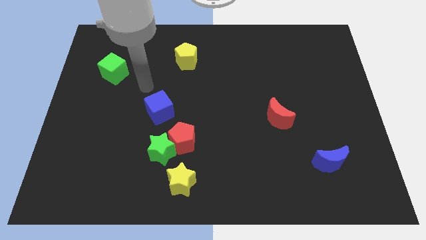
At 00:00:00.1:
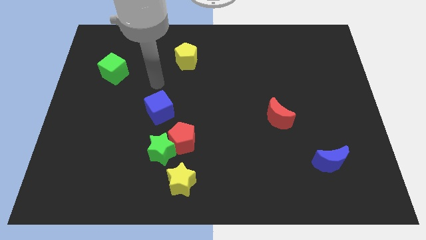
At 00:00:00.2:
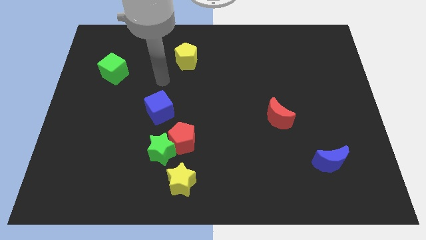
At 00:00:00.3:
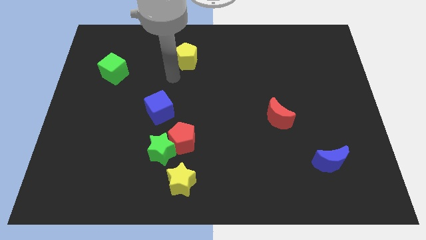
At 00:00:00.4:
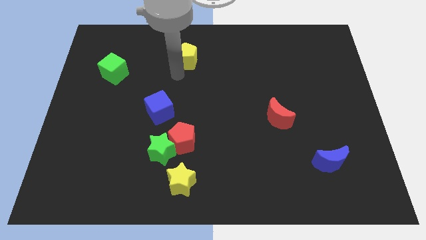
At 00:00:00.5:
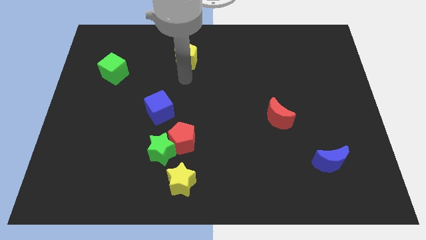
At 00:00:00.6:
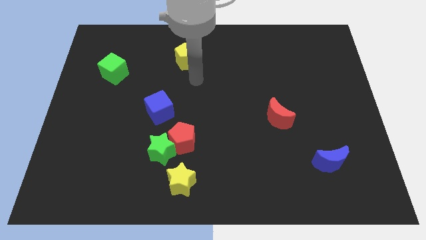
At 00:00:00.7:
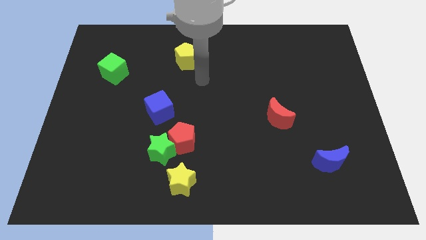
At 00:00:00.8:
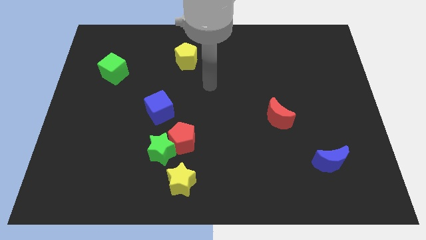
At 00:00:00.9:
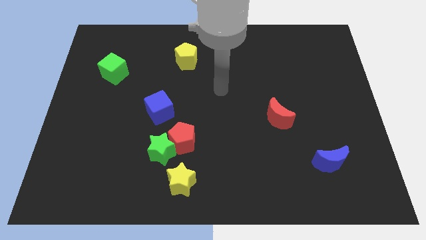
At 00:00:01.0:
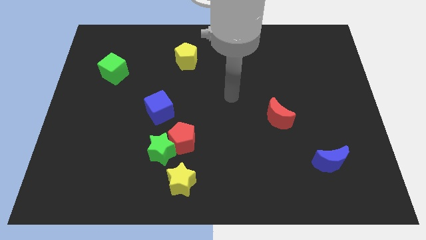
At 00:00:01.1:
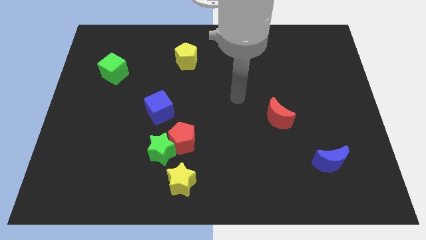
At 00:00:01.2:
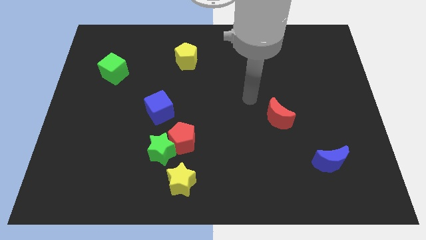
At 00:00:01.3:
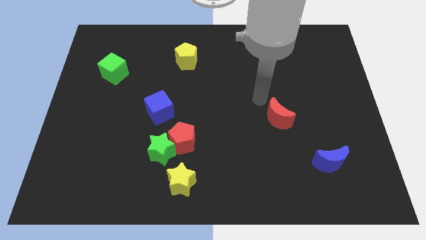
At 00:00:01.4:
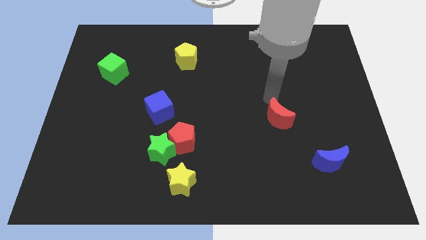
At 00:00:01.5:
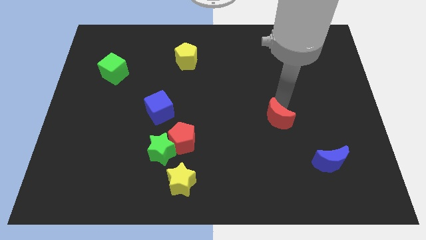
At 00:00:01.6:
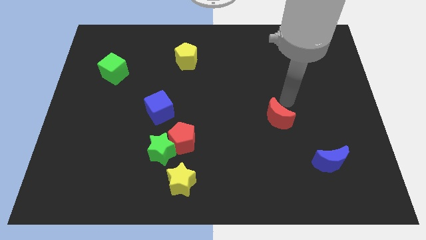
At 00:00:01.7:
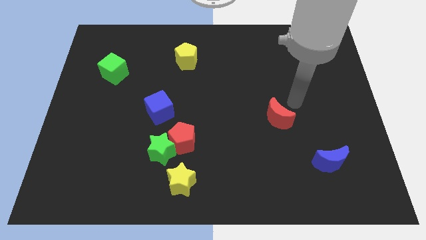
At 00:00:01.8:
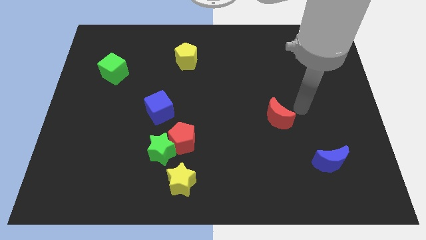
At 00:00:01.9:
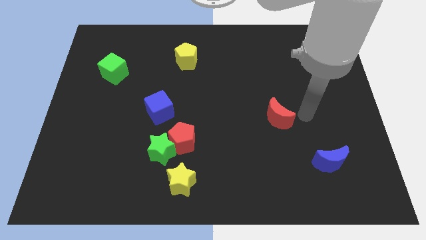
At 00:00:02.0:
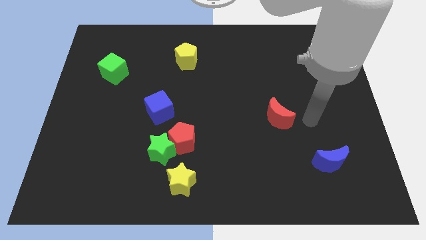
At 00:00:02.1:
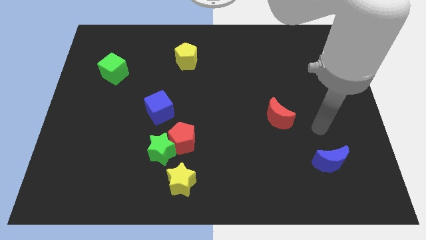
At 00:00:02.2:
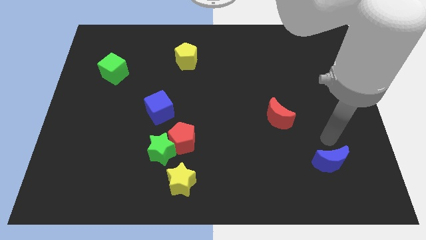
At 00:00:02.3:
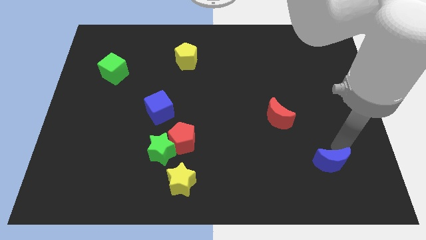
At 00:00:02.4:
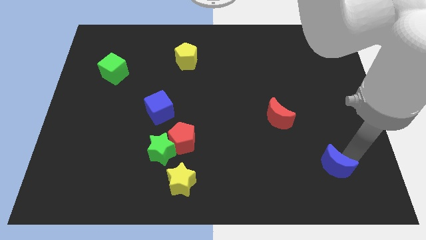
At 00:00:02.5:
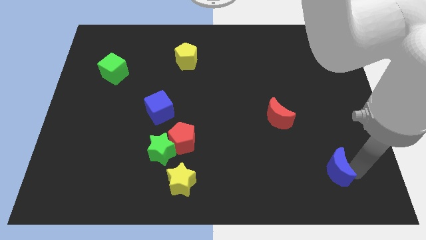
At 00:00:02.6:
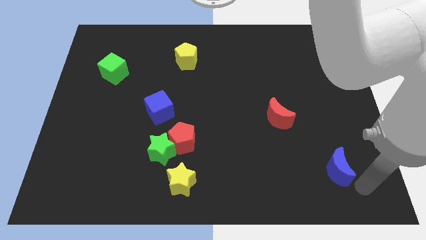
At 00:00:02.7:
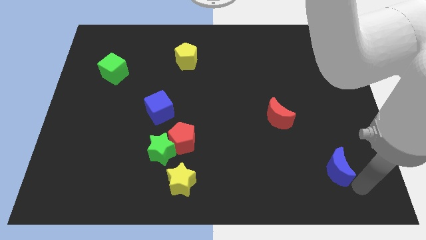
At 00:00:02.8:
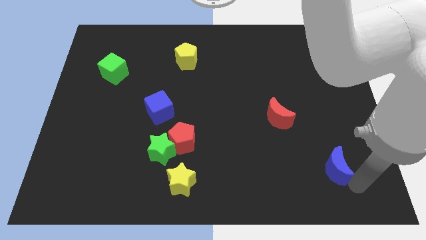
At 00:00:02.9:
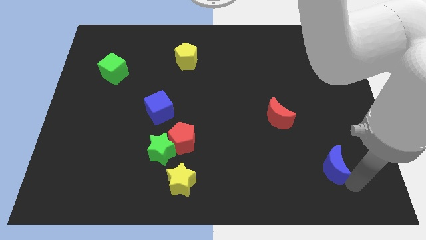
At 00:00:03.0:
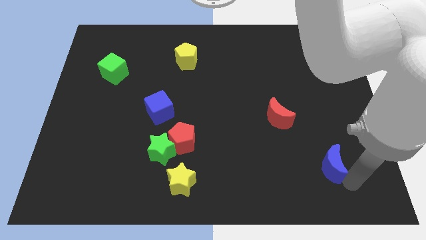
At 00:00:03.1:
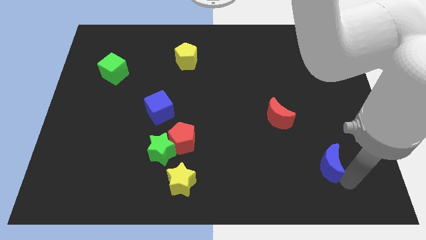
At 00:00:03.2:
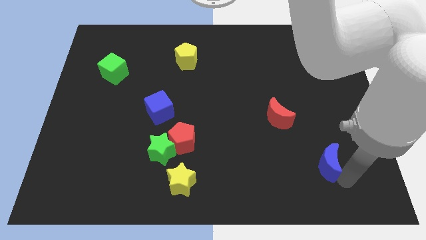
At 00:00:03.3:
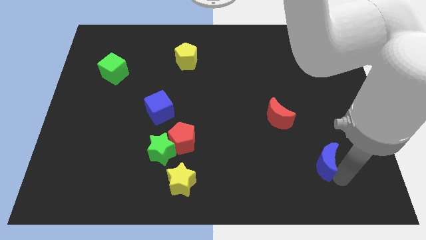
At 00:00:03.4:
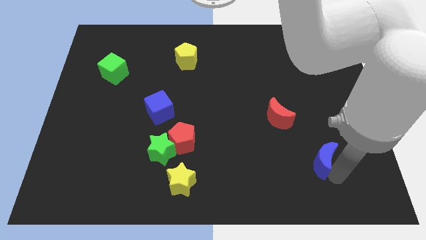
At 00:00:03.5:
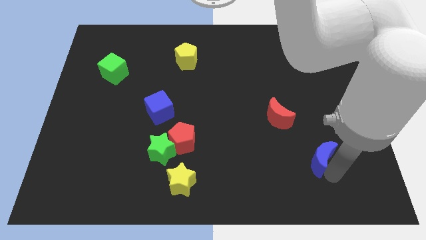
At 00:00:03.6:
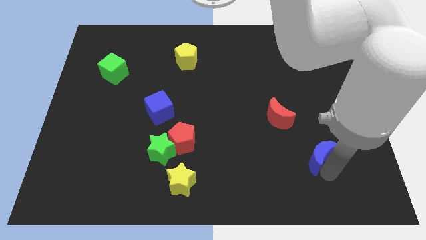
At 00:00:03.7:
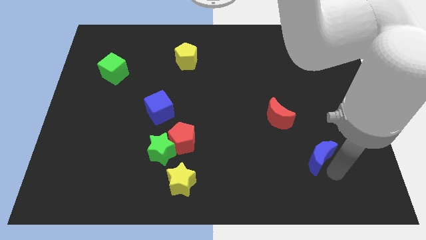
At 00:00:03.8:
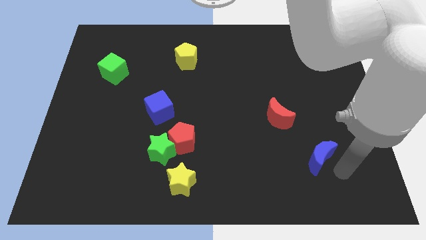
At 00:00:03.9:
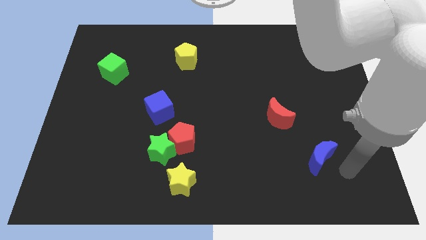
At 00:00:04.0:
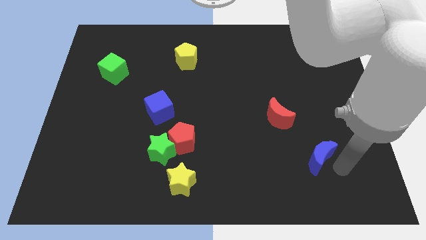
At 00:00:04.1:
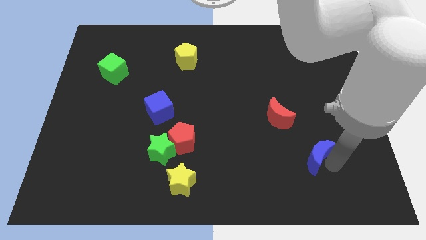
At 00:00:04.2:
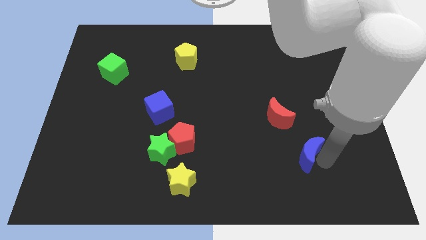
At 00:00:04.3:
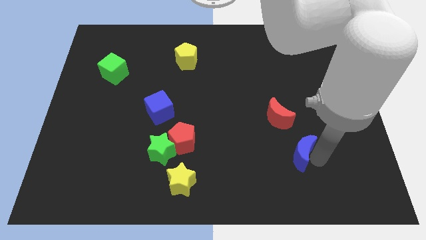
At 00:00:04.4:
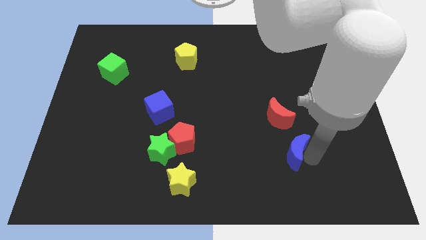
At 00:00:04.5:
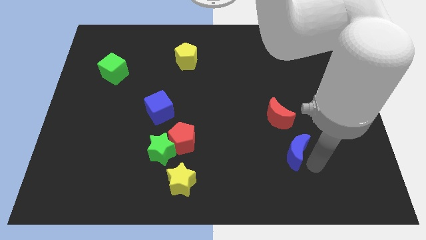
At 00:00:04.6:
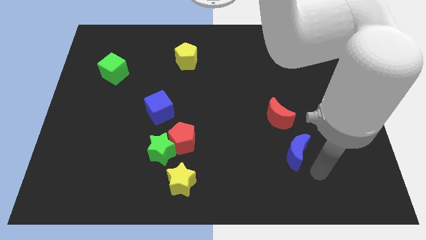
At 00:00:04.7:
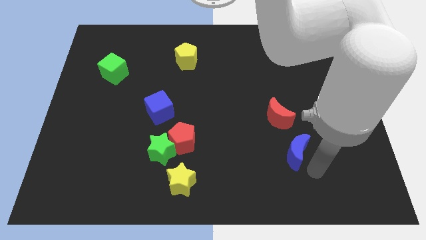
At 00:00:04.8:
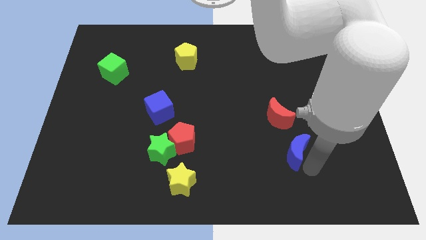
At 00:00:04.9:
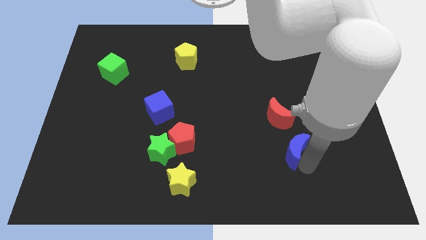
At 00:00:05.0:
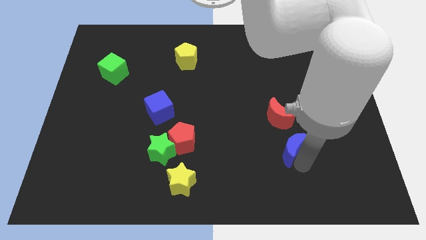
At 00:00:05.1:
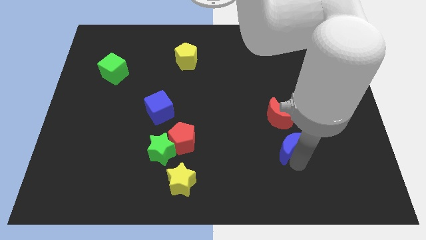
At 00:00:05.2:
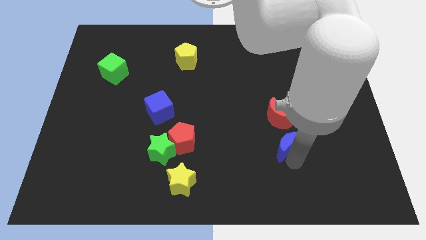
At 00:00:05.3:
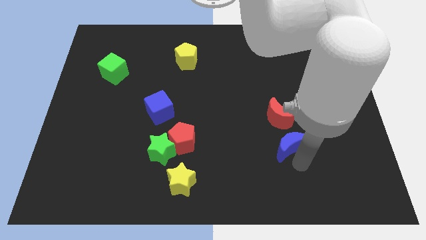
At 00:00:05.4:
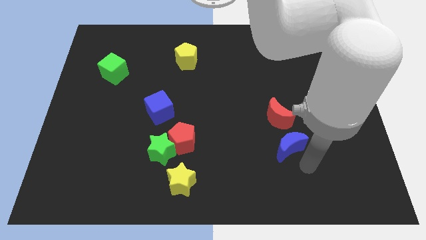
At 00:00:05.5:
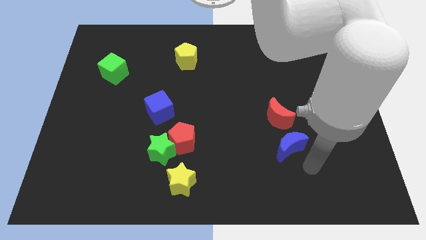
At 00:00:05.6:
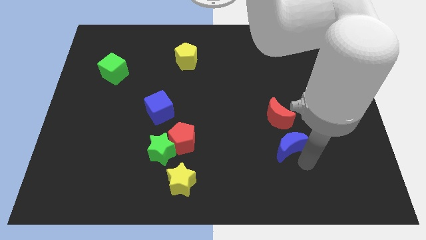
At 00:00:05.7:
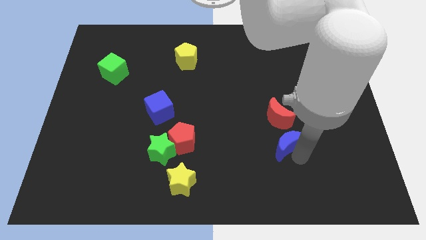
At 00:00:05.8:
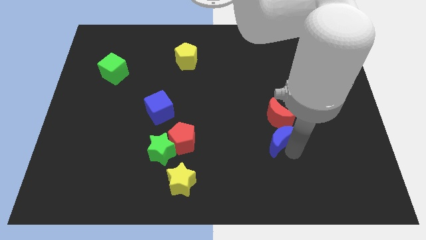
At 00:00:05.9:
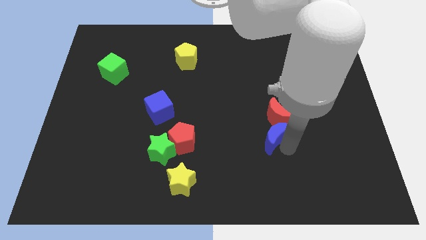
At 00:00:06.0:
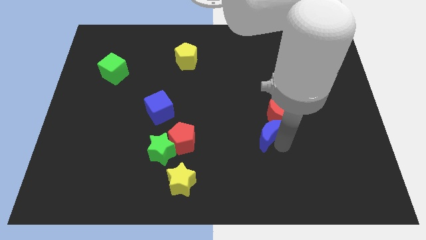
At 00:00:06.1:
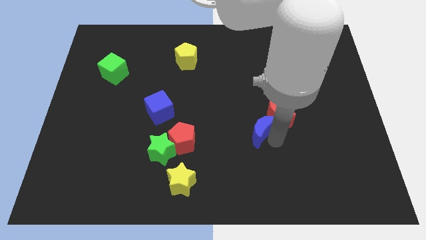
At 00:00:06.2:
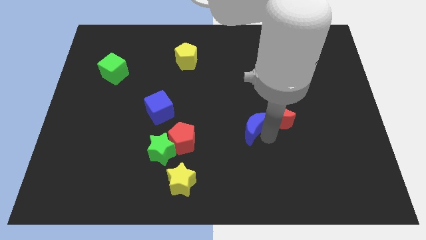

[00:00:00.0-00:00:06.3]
push the blue moon to the center of the board

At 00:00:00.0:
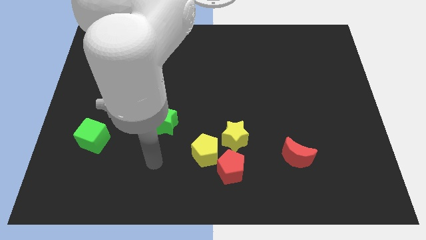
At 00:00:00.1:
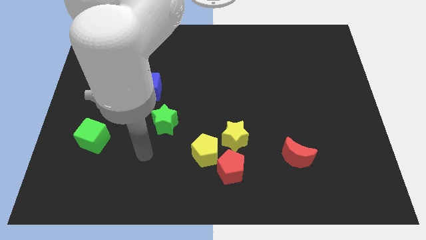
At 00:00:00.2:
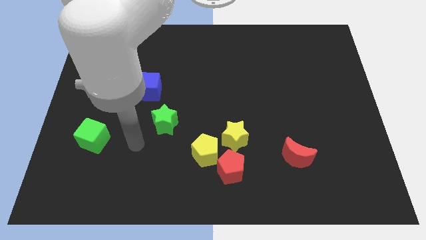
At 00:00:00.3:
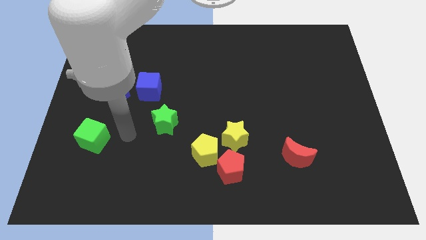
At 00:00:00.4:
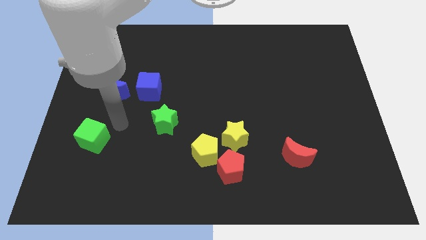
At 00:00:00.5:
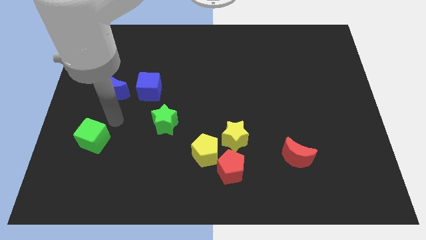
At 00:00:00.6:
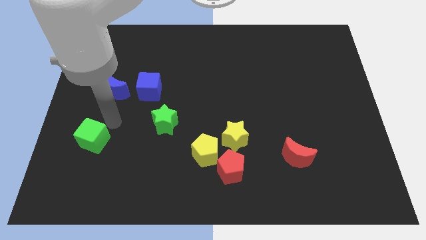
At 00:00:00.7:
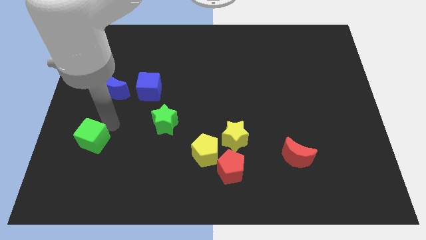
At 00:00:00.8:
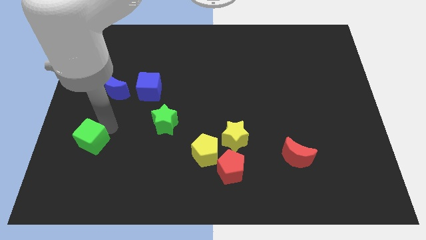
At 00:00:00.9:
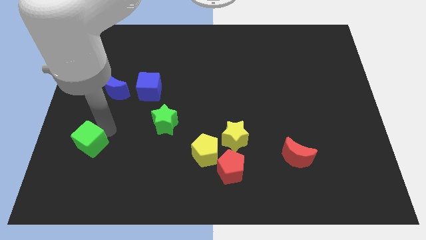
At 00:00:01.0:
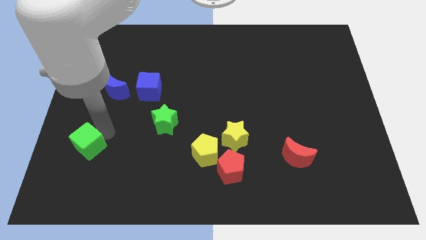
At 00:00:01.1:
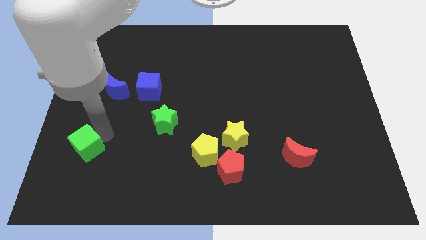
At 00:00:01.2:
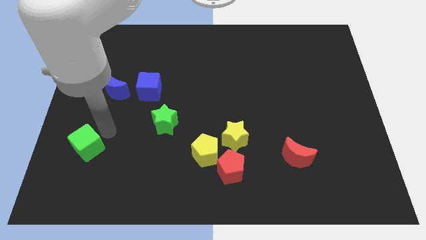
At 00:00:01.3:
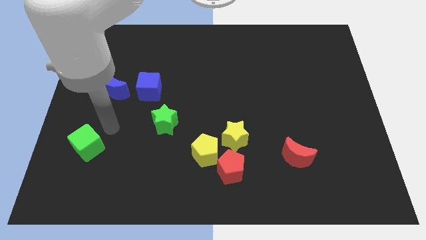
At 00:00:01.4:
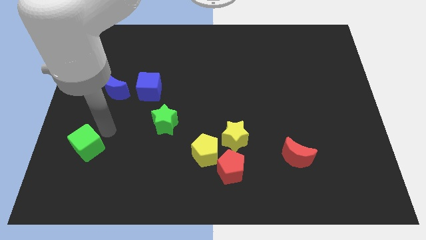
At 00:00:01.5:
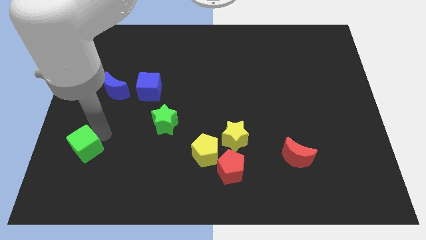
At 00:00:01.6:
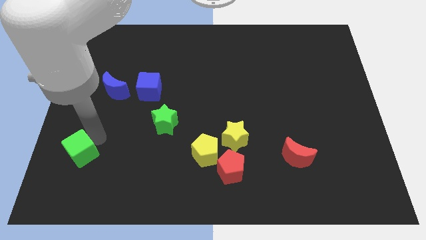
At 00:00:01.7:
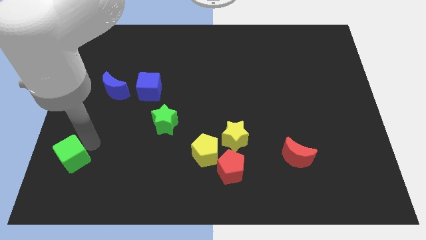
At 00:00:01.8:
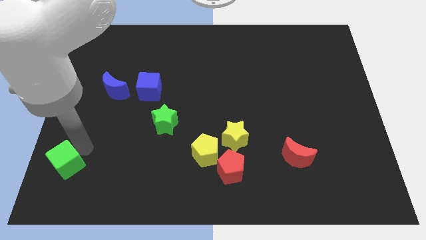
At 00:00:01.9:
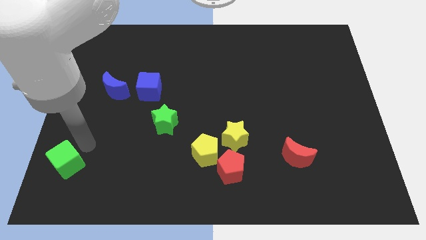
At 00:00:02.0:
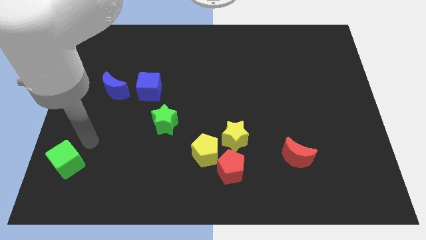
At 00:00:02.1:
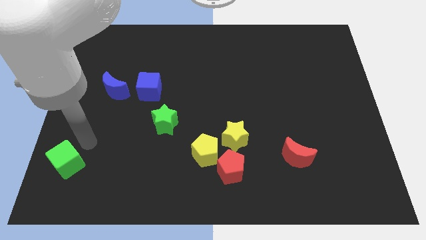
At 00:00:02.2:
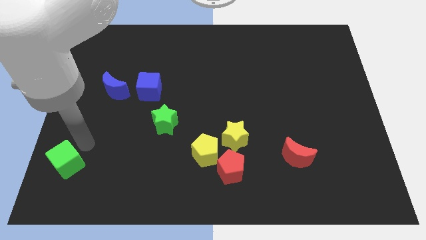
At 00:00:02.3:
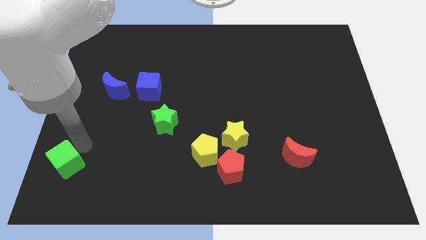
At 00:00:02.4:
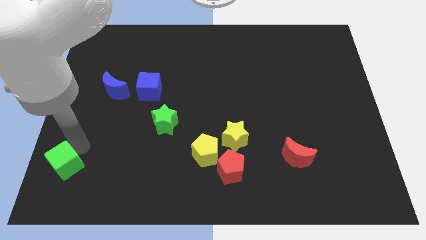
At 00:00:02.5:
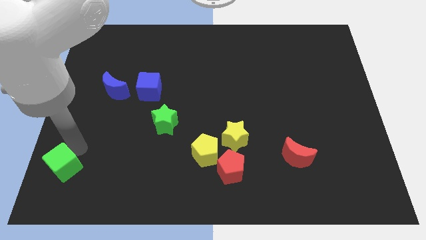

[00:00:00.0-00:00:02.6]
push the green cube to the bottom left
